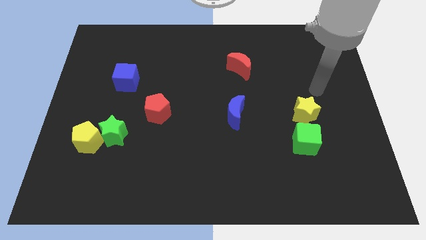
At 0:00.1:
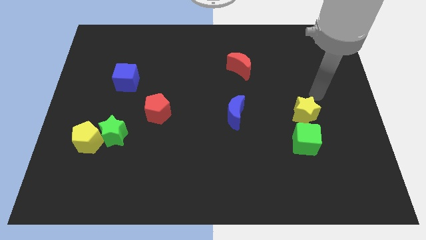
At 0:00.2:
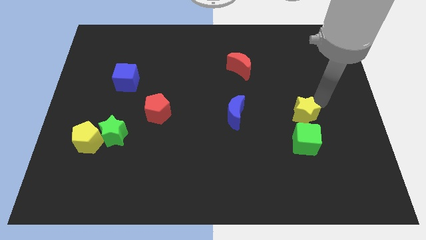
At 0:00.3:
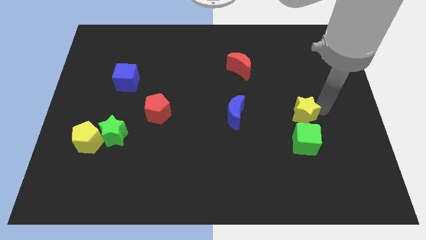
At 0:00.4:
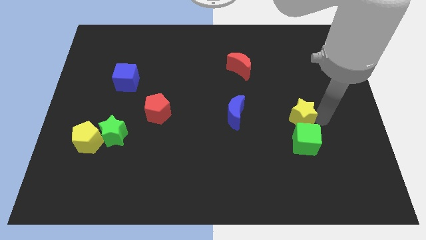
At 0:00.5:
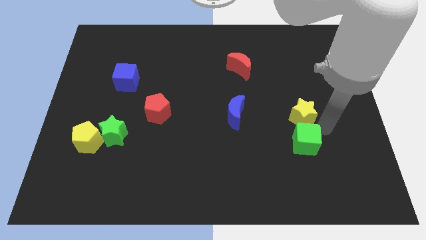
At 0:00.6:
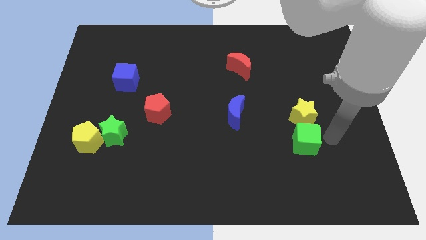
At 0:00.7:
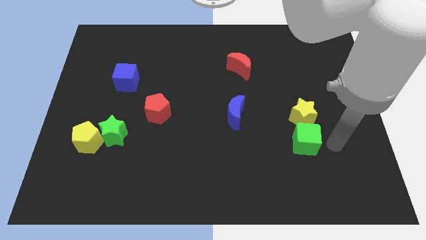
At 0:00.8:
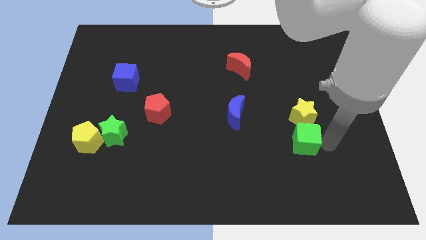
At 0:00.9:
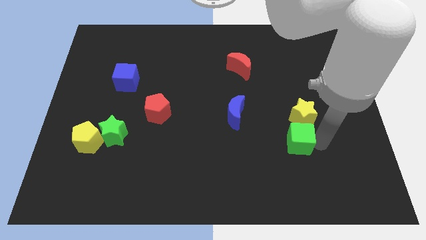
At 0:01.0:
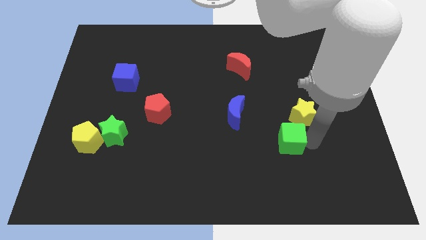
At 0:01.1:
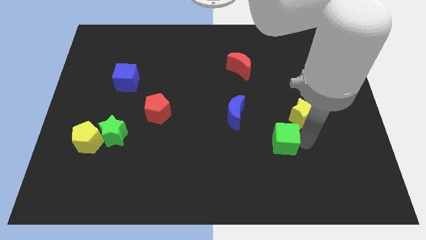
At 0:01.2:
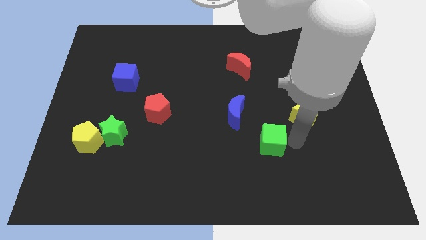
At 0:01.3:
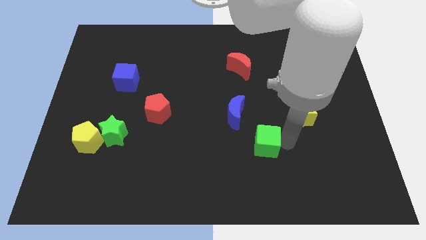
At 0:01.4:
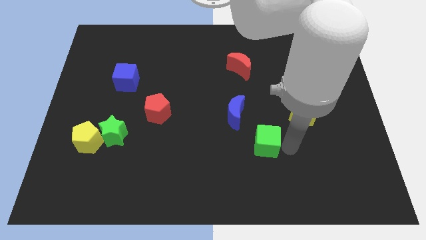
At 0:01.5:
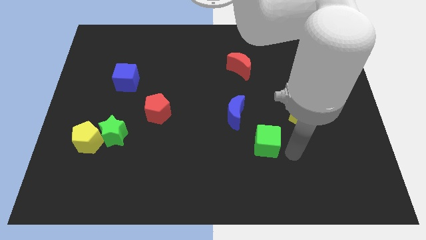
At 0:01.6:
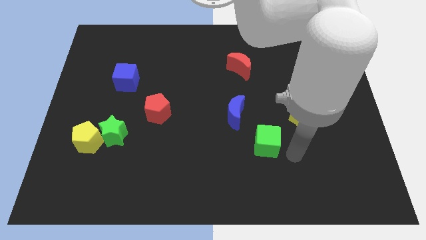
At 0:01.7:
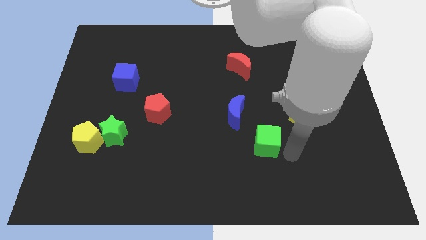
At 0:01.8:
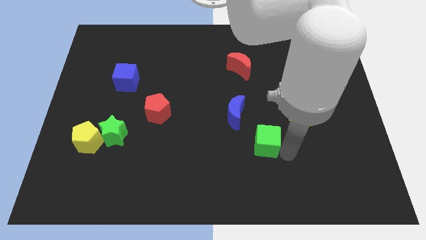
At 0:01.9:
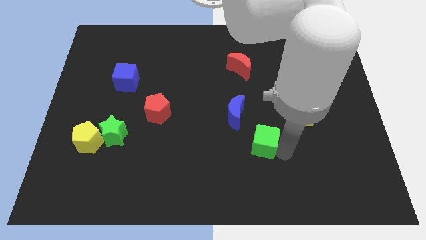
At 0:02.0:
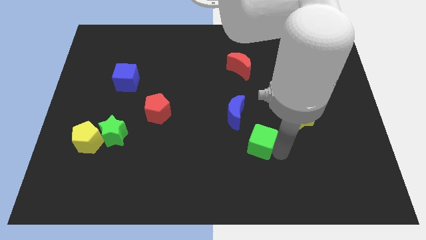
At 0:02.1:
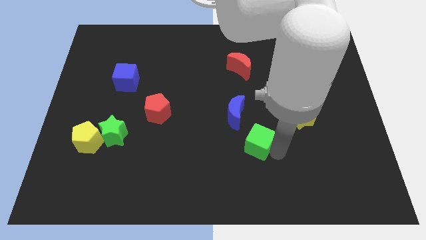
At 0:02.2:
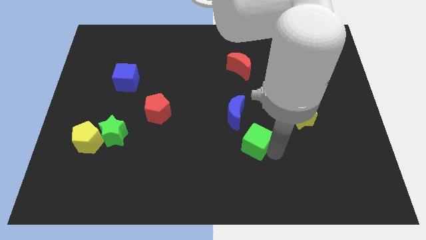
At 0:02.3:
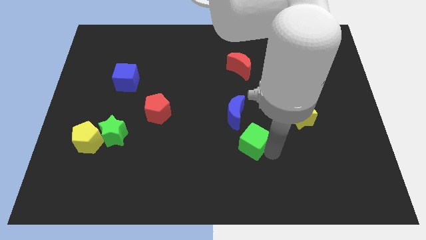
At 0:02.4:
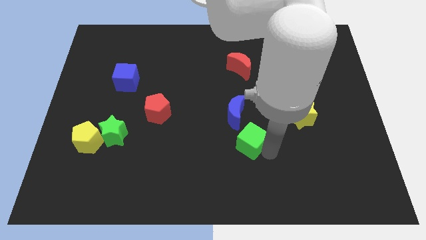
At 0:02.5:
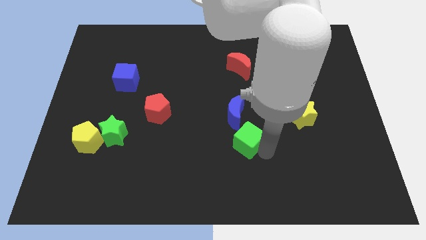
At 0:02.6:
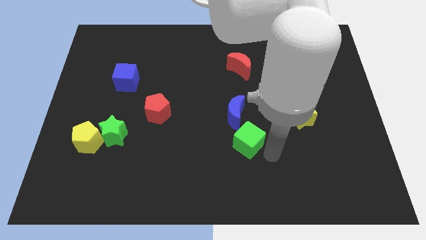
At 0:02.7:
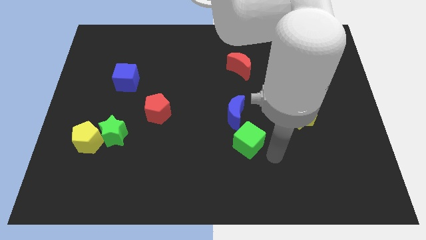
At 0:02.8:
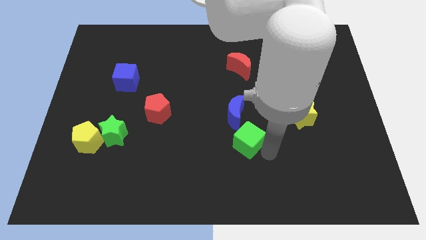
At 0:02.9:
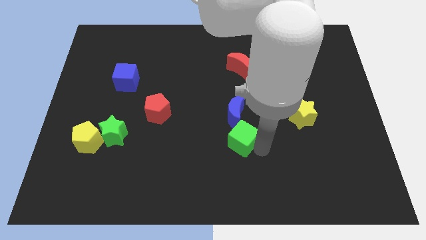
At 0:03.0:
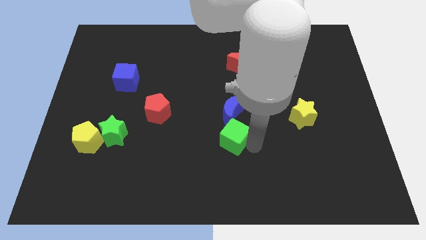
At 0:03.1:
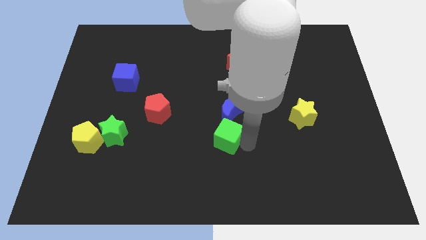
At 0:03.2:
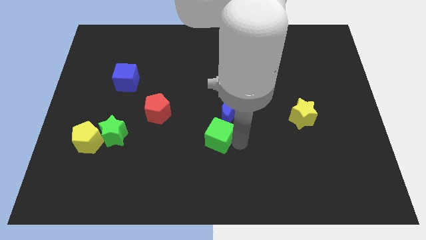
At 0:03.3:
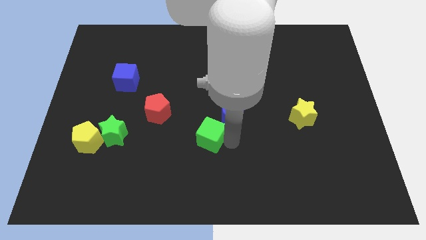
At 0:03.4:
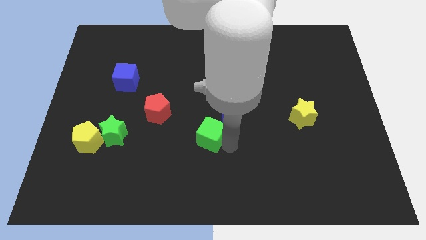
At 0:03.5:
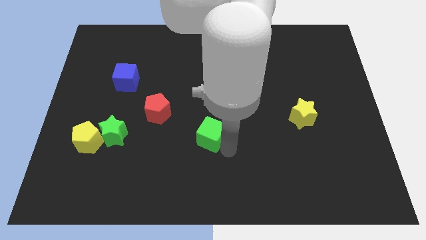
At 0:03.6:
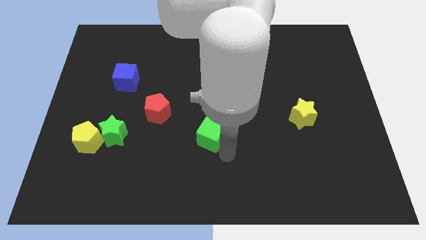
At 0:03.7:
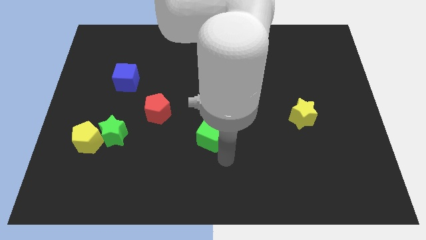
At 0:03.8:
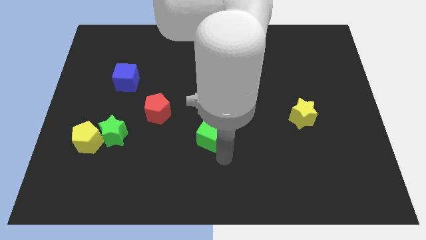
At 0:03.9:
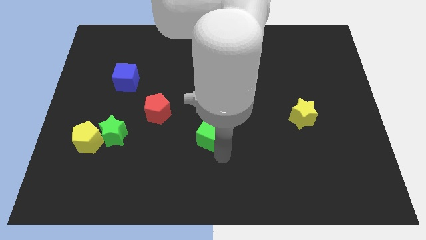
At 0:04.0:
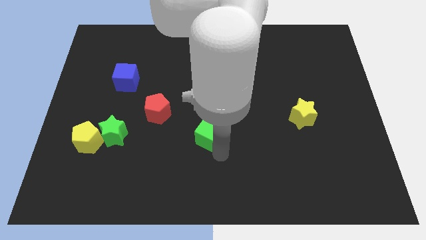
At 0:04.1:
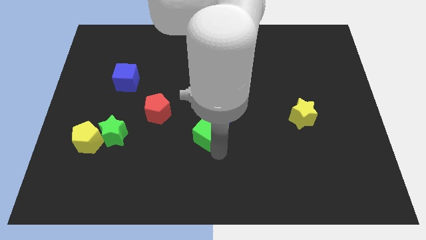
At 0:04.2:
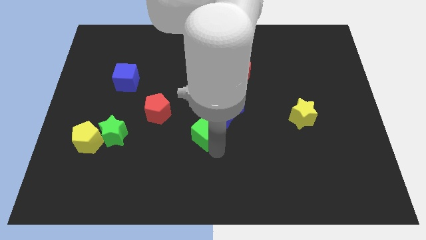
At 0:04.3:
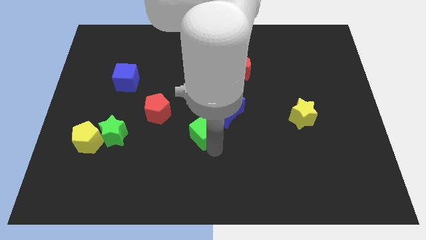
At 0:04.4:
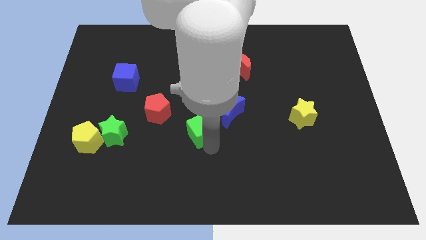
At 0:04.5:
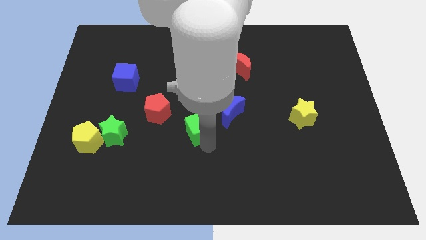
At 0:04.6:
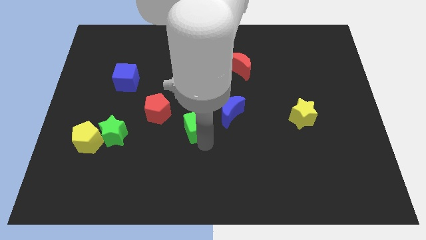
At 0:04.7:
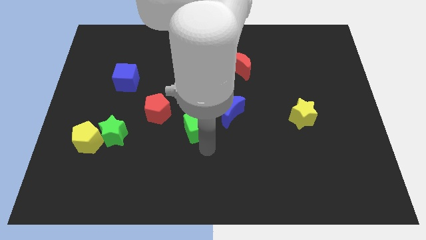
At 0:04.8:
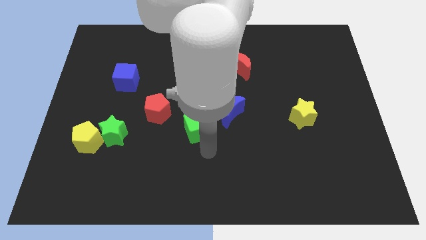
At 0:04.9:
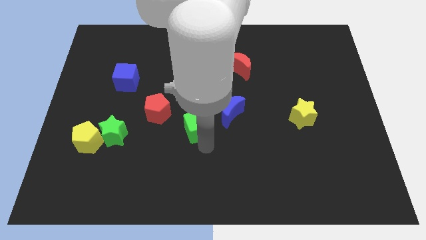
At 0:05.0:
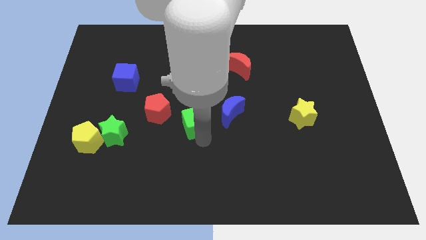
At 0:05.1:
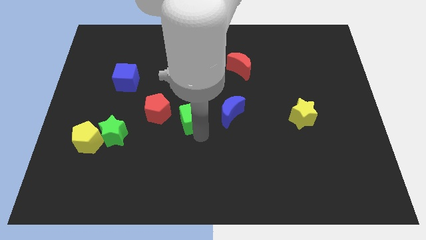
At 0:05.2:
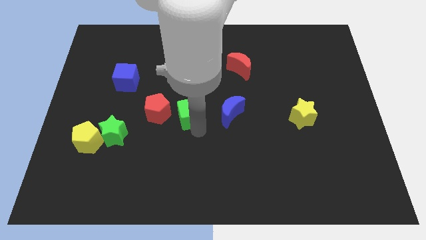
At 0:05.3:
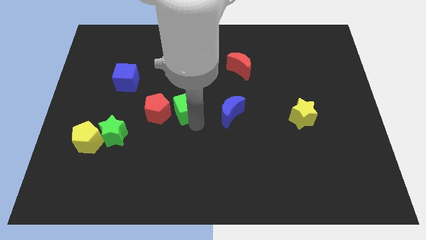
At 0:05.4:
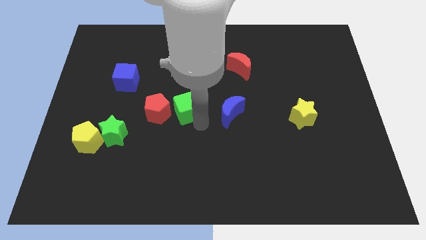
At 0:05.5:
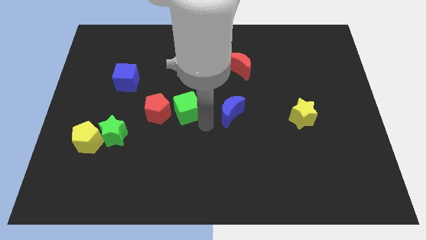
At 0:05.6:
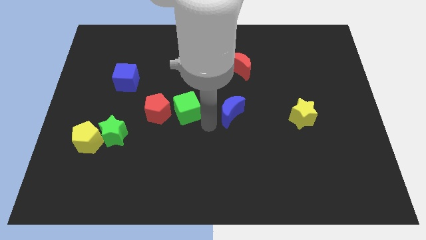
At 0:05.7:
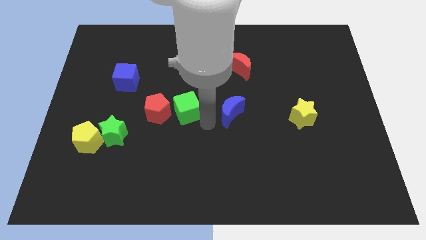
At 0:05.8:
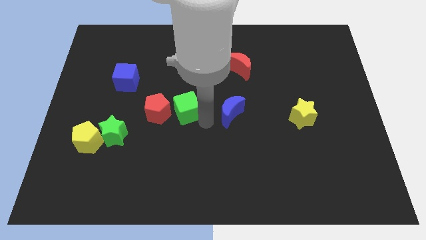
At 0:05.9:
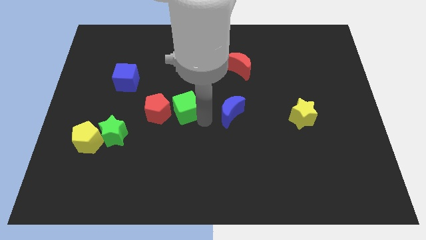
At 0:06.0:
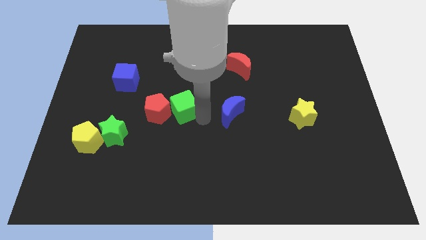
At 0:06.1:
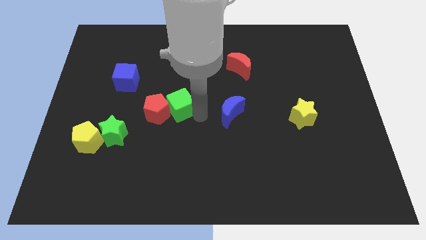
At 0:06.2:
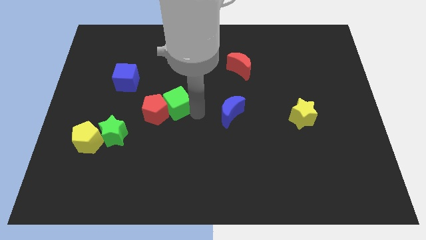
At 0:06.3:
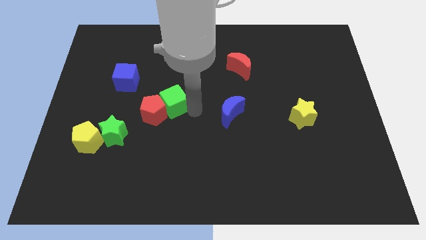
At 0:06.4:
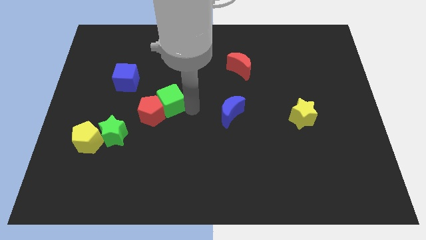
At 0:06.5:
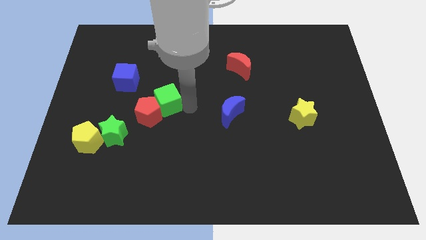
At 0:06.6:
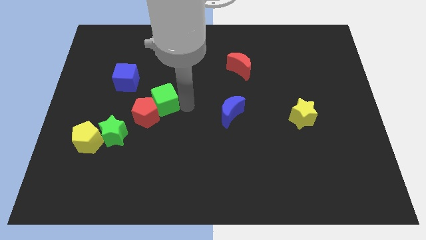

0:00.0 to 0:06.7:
push the green cube diagonally down and to the right of the blue cube
